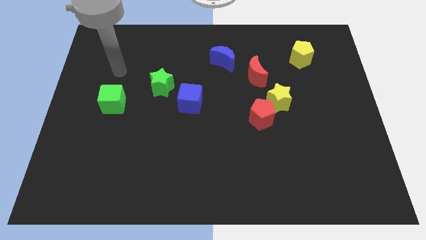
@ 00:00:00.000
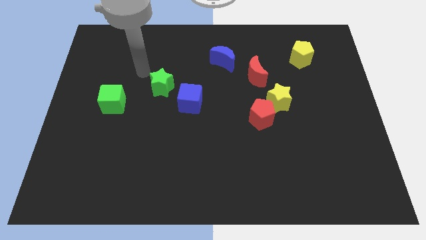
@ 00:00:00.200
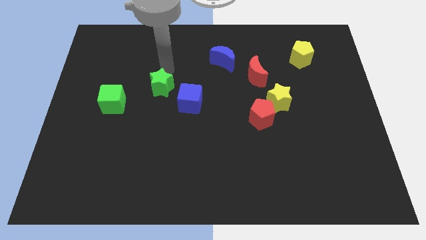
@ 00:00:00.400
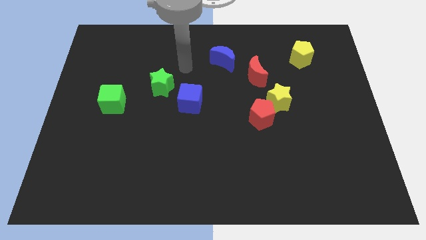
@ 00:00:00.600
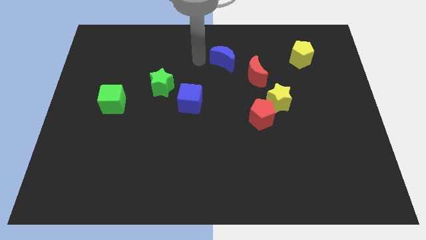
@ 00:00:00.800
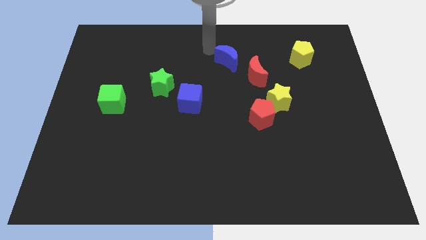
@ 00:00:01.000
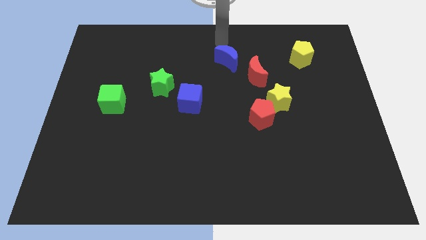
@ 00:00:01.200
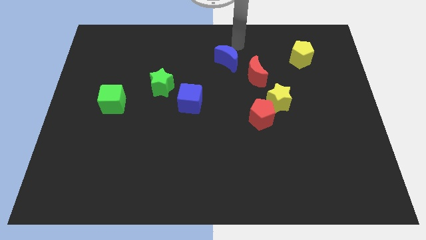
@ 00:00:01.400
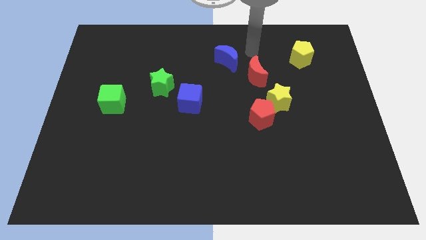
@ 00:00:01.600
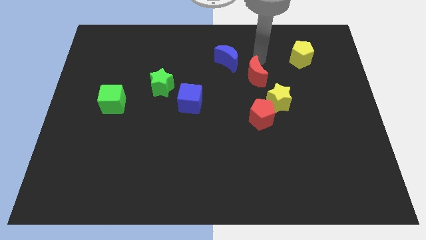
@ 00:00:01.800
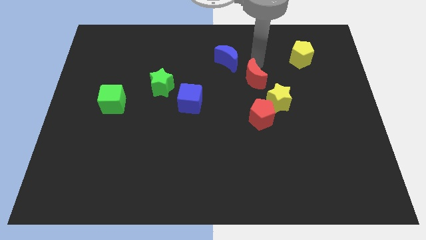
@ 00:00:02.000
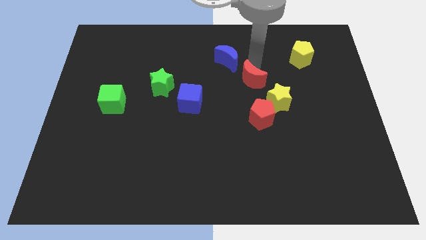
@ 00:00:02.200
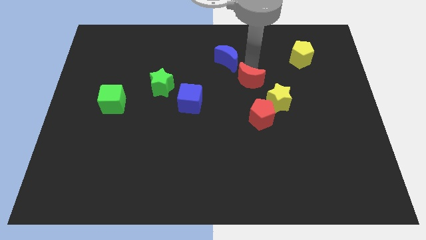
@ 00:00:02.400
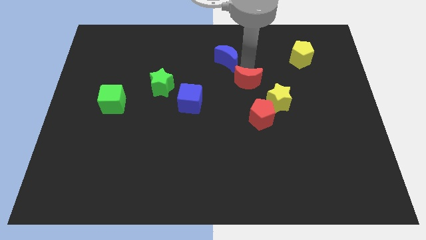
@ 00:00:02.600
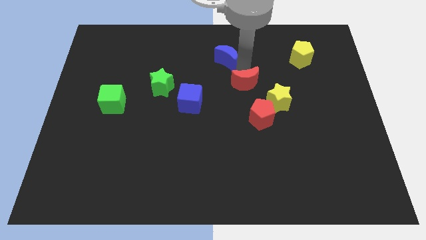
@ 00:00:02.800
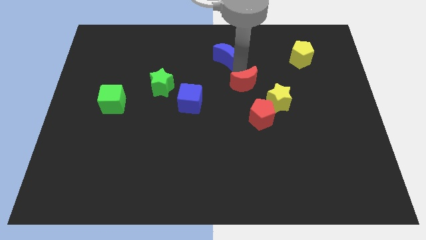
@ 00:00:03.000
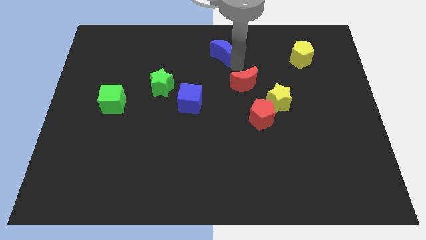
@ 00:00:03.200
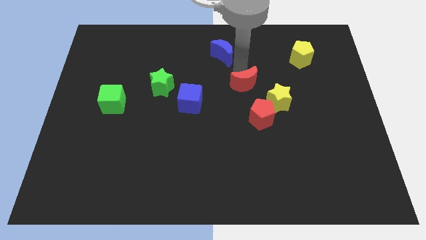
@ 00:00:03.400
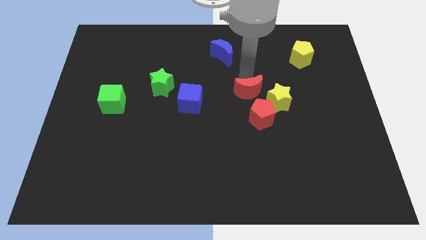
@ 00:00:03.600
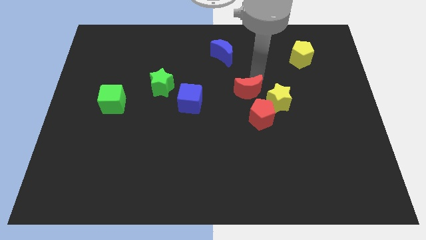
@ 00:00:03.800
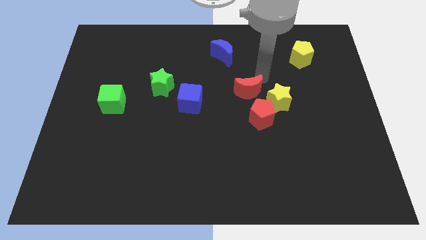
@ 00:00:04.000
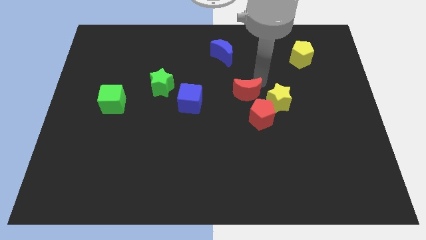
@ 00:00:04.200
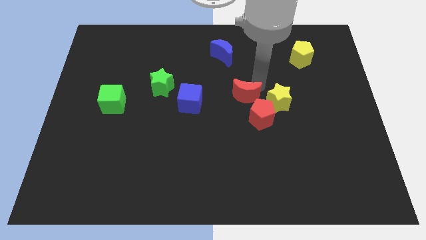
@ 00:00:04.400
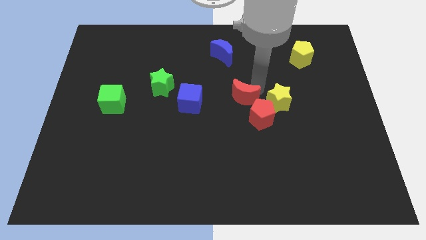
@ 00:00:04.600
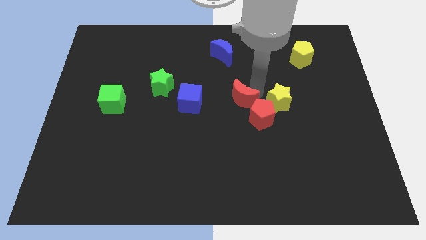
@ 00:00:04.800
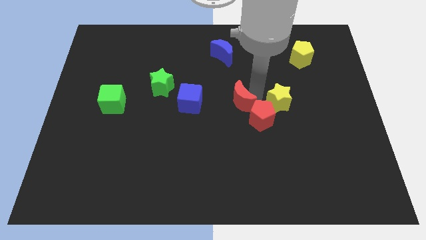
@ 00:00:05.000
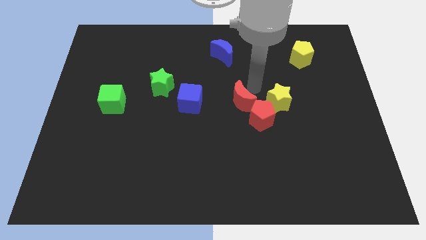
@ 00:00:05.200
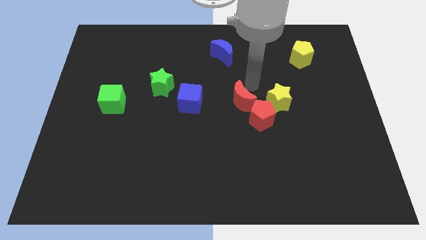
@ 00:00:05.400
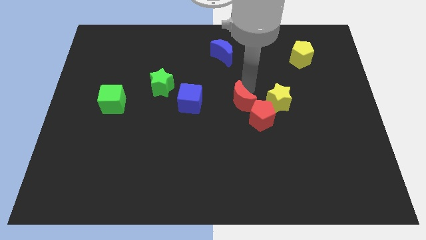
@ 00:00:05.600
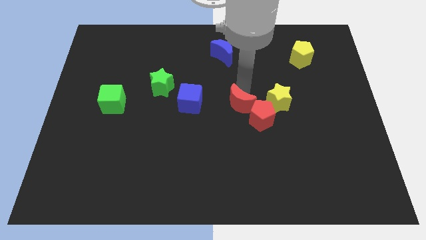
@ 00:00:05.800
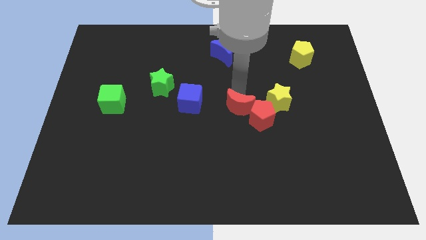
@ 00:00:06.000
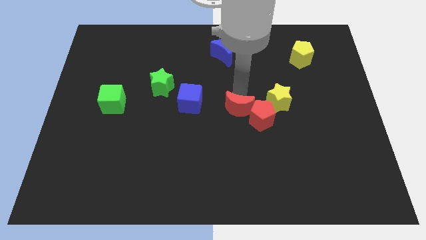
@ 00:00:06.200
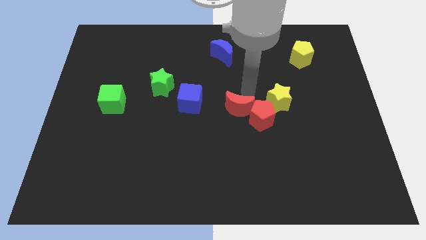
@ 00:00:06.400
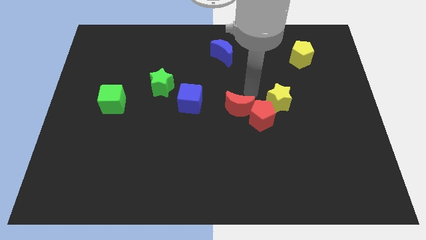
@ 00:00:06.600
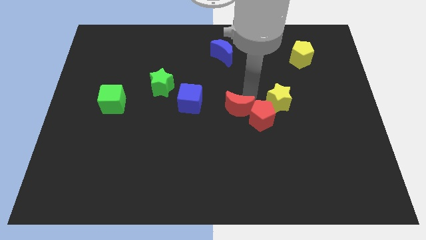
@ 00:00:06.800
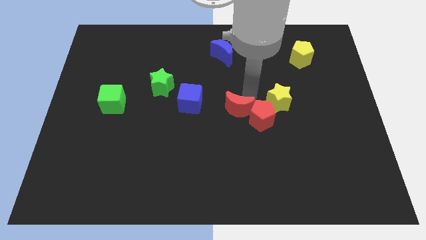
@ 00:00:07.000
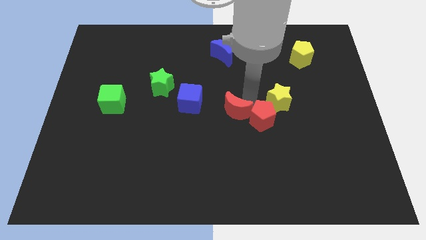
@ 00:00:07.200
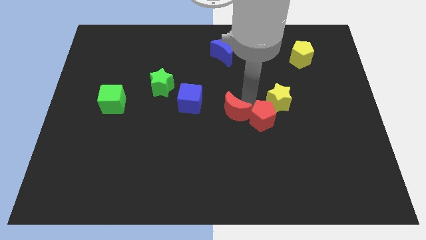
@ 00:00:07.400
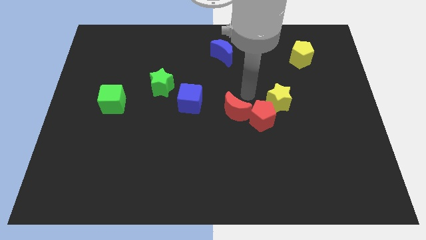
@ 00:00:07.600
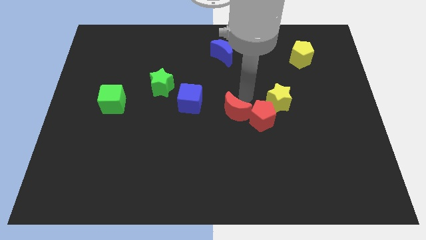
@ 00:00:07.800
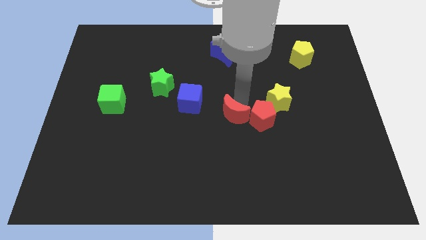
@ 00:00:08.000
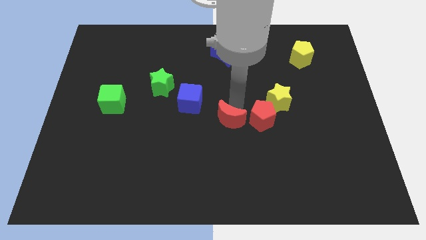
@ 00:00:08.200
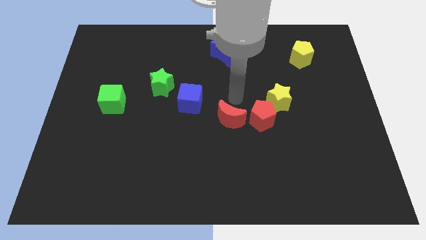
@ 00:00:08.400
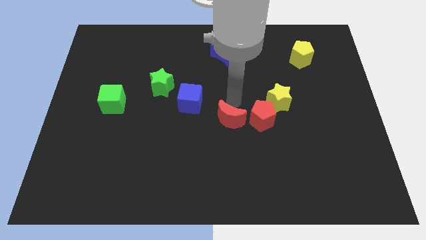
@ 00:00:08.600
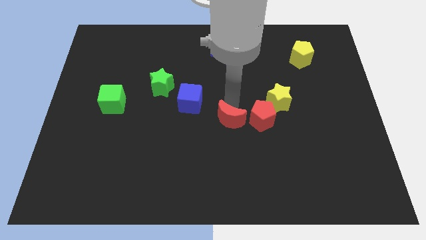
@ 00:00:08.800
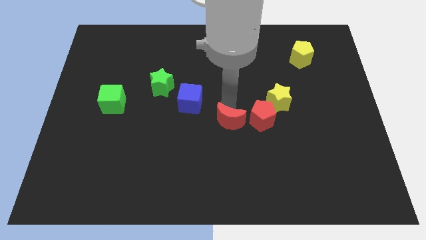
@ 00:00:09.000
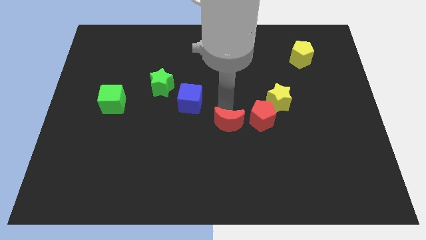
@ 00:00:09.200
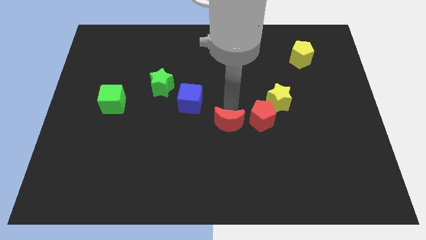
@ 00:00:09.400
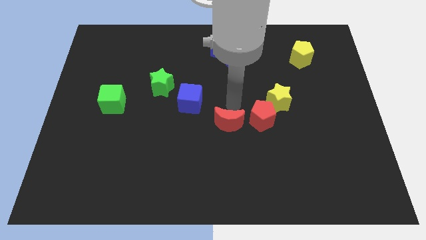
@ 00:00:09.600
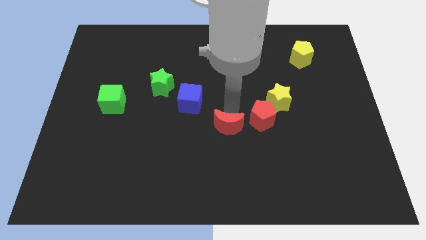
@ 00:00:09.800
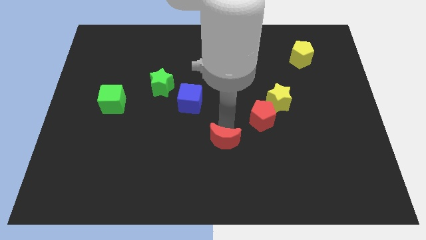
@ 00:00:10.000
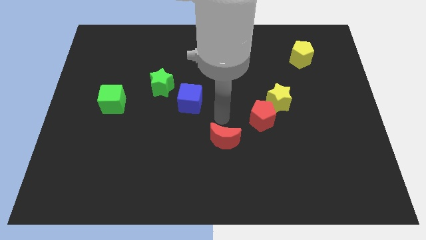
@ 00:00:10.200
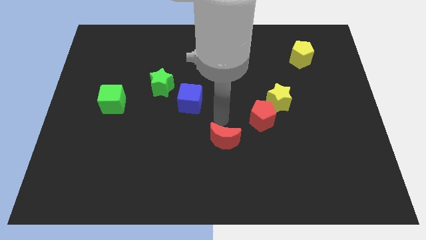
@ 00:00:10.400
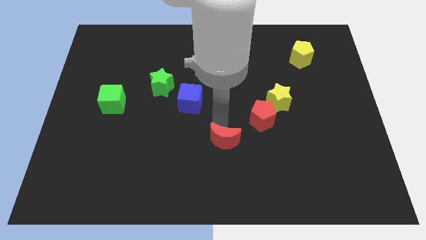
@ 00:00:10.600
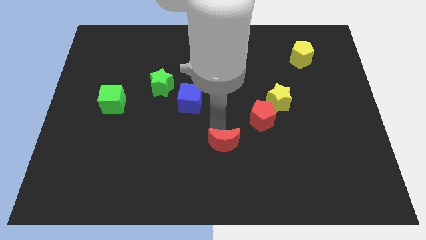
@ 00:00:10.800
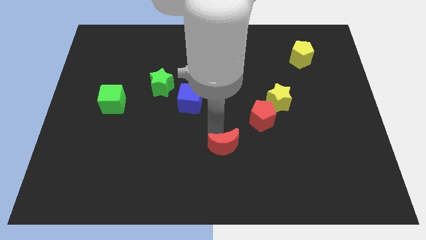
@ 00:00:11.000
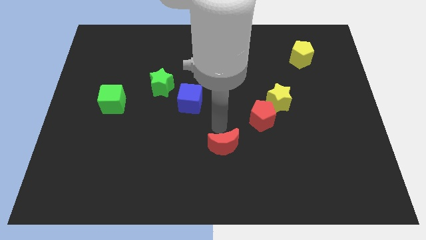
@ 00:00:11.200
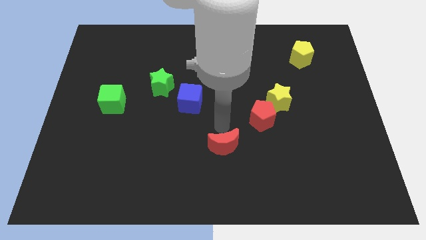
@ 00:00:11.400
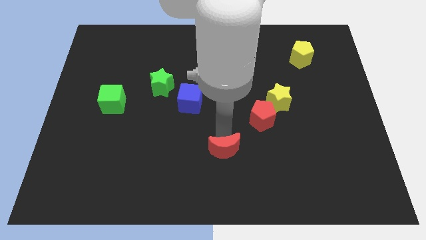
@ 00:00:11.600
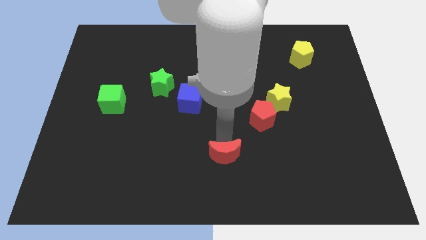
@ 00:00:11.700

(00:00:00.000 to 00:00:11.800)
move the red moon to the bottom side
